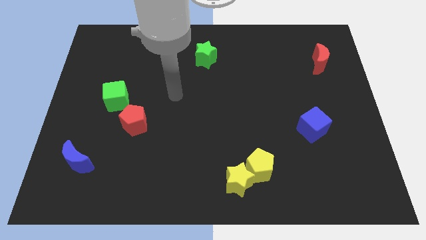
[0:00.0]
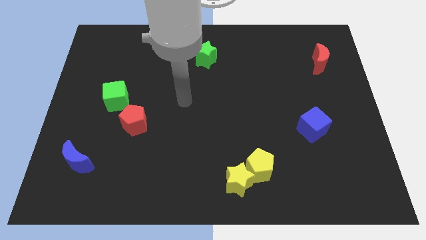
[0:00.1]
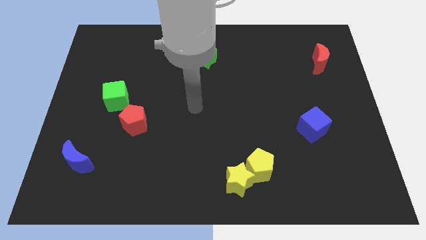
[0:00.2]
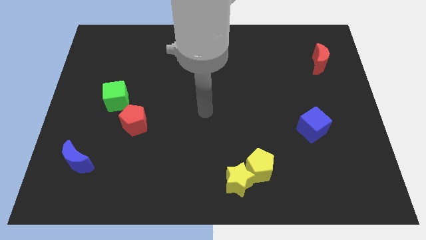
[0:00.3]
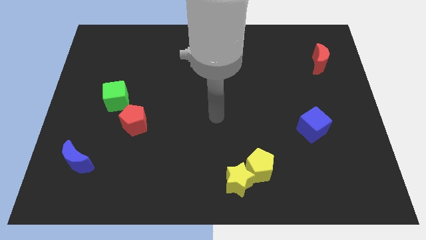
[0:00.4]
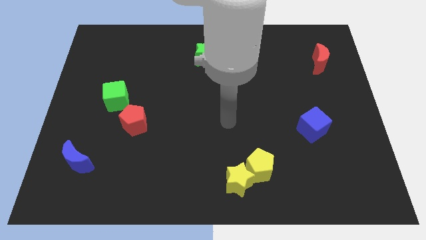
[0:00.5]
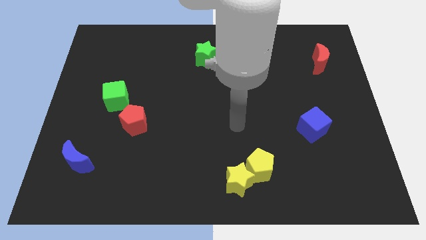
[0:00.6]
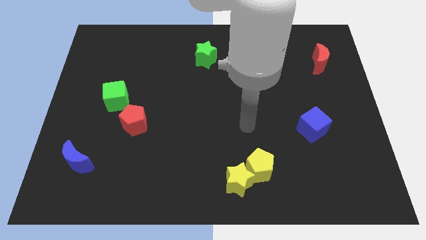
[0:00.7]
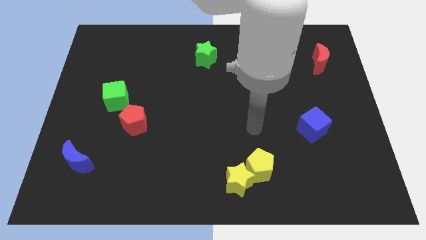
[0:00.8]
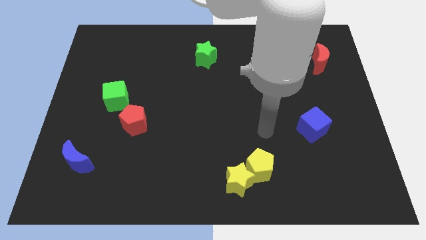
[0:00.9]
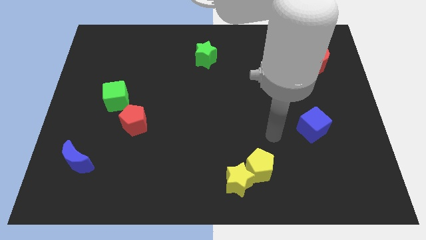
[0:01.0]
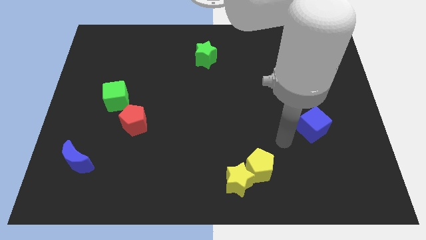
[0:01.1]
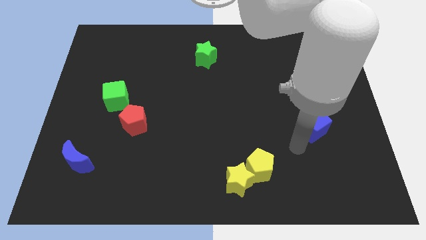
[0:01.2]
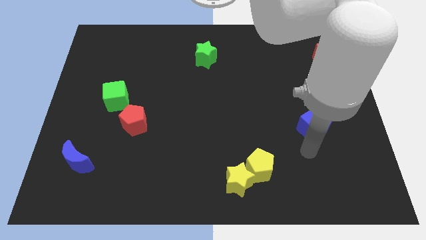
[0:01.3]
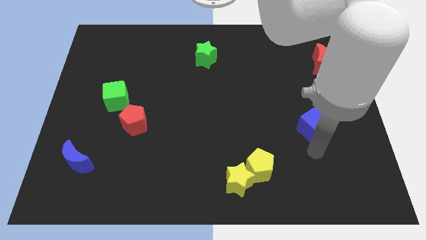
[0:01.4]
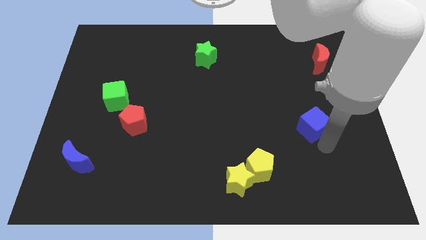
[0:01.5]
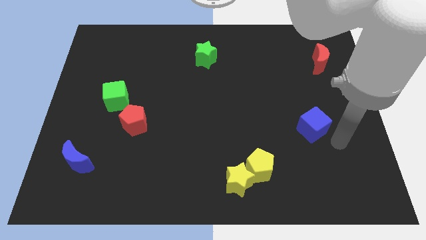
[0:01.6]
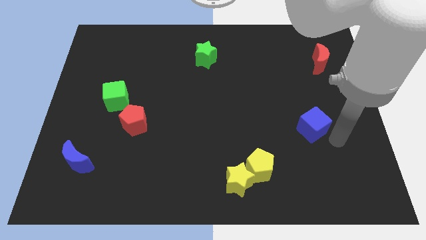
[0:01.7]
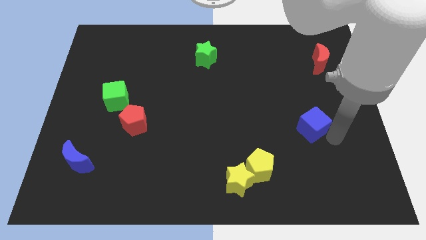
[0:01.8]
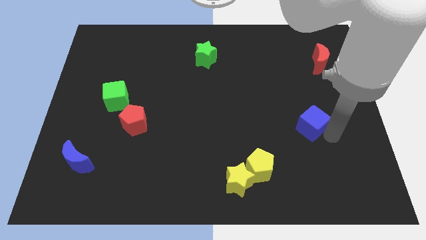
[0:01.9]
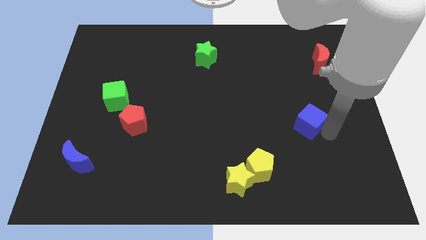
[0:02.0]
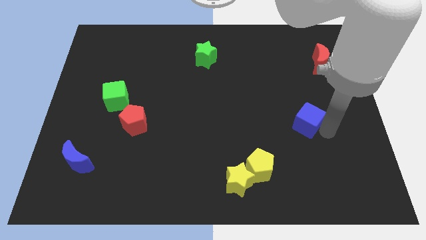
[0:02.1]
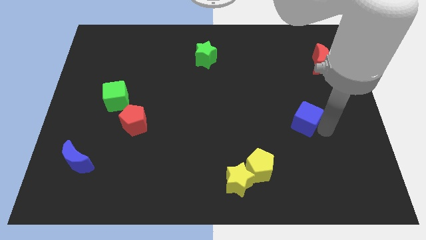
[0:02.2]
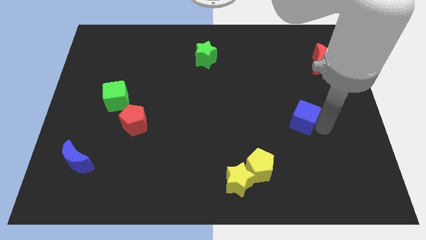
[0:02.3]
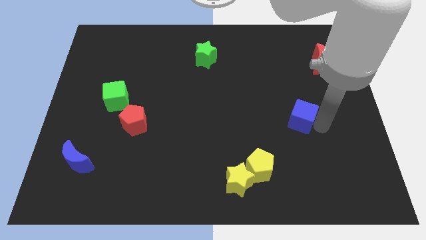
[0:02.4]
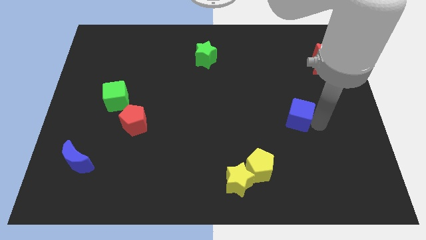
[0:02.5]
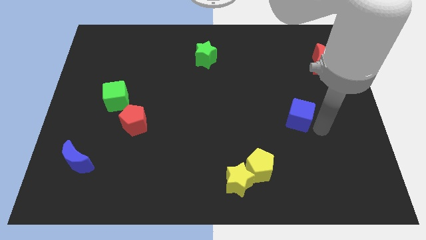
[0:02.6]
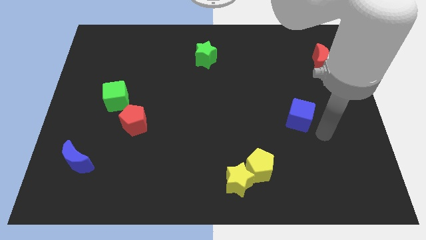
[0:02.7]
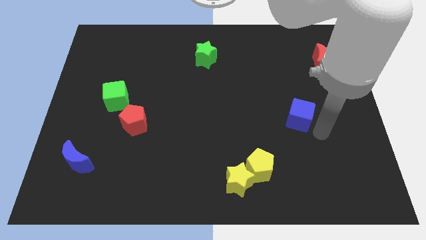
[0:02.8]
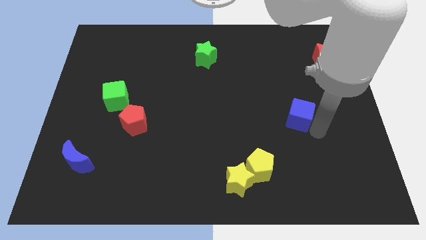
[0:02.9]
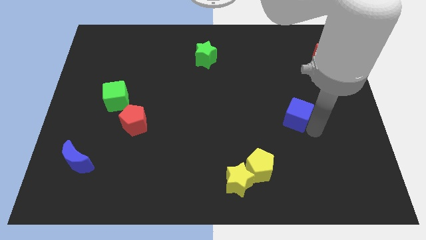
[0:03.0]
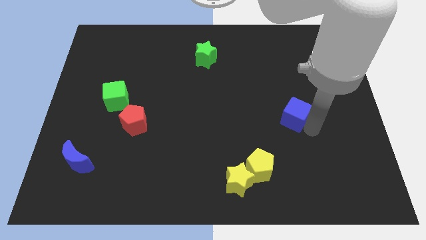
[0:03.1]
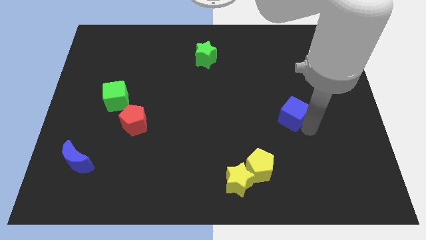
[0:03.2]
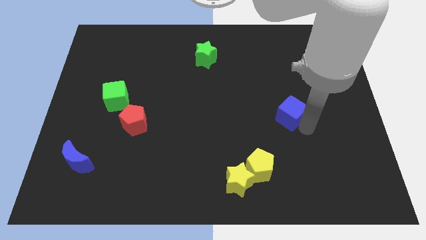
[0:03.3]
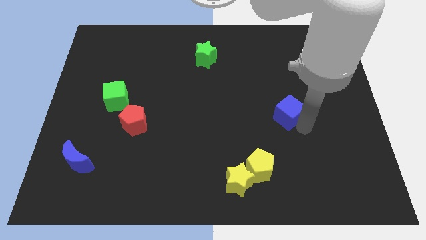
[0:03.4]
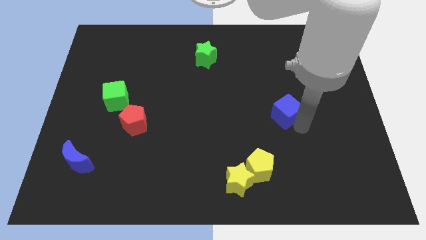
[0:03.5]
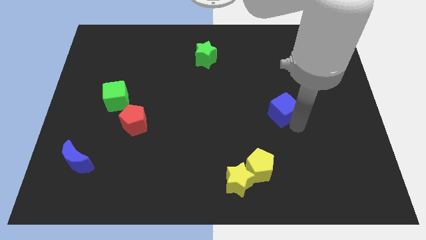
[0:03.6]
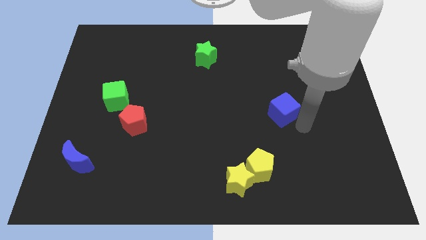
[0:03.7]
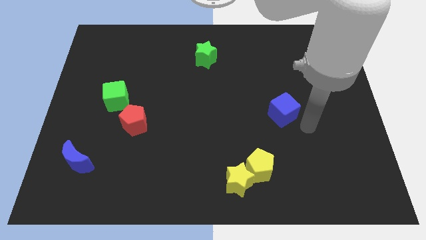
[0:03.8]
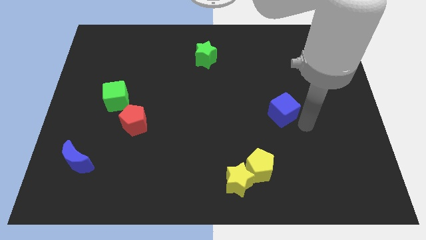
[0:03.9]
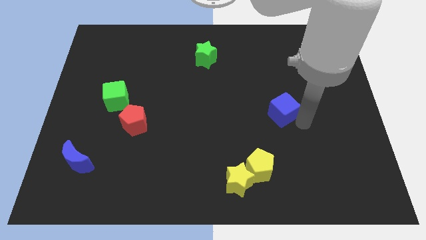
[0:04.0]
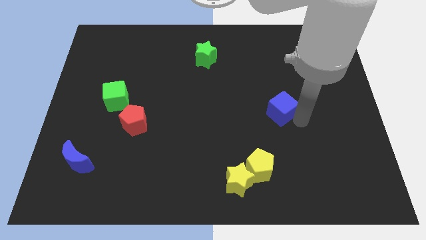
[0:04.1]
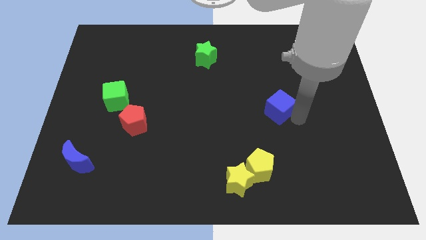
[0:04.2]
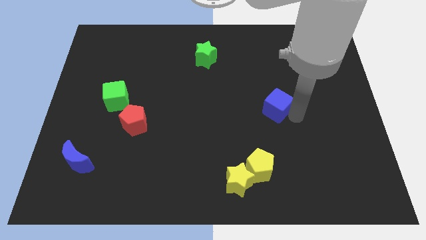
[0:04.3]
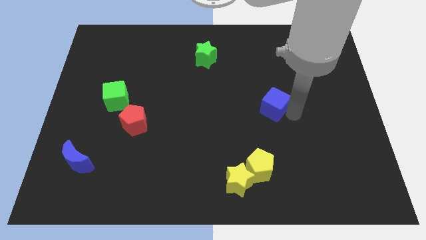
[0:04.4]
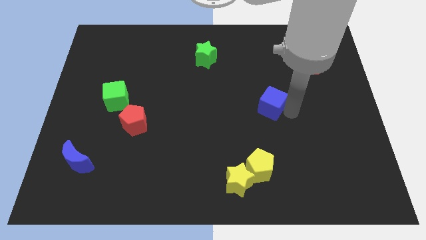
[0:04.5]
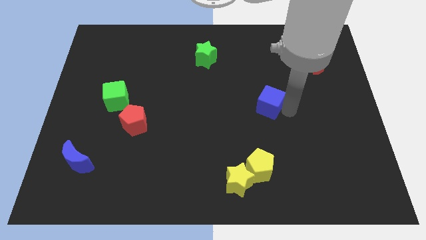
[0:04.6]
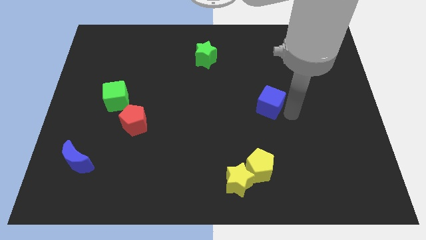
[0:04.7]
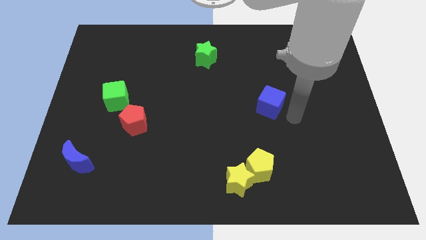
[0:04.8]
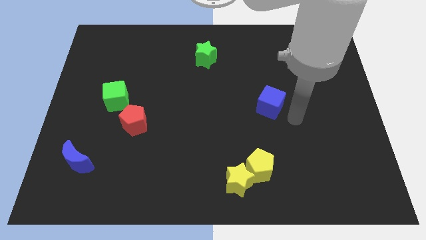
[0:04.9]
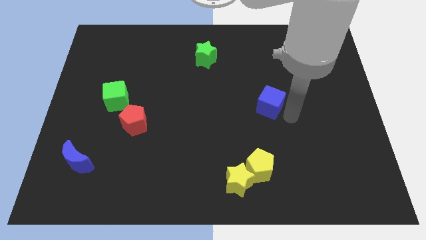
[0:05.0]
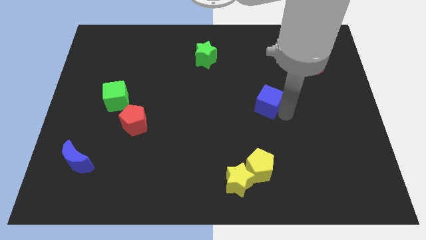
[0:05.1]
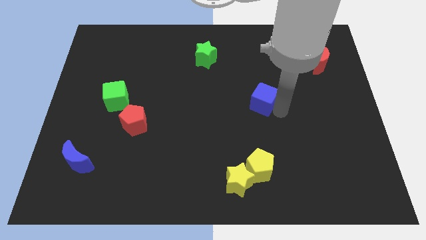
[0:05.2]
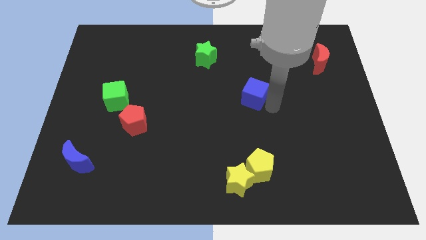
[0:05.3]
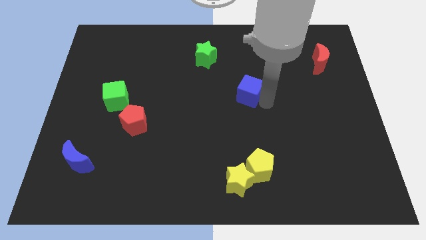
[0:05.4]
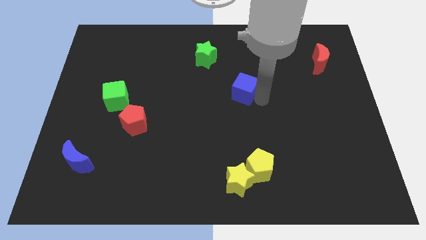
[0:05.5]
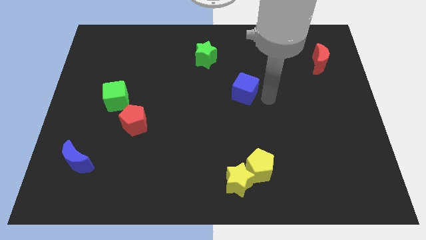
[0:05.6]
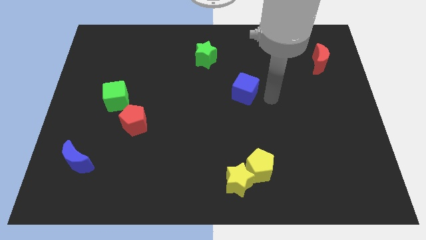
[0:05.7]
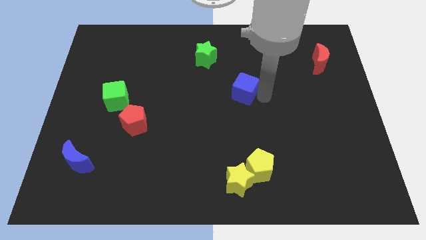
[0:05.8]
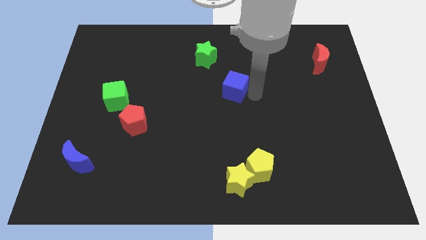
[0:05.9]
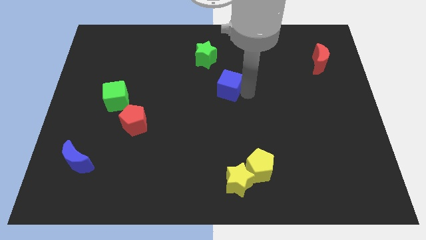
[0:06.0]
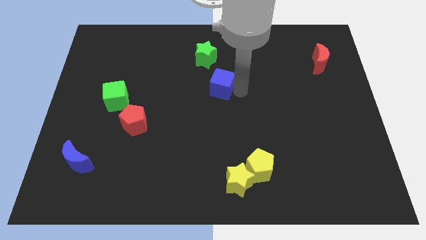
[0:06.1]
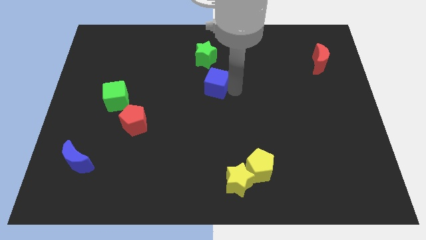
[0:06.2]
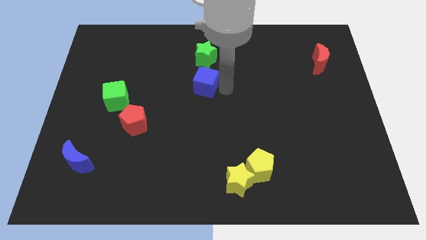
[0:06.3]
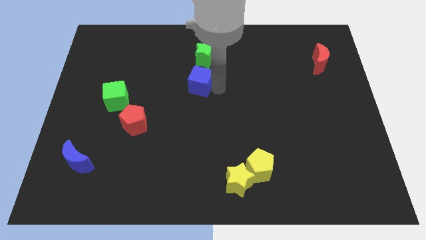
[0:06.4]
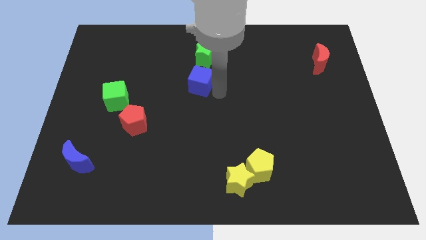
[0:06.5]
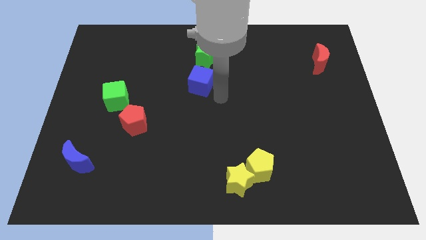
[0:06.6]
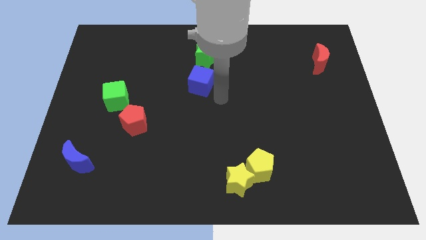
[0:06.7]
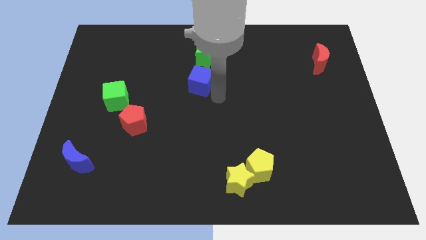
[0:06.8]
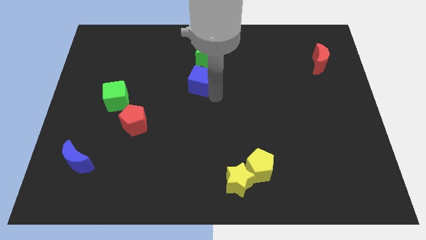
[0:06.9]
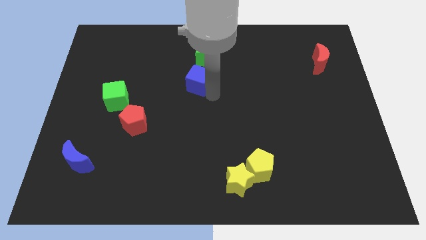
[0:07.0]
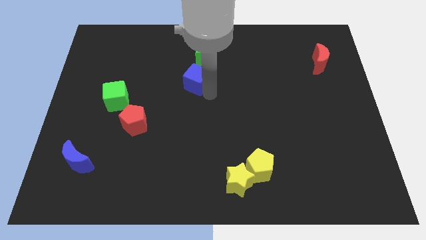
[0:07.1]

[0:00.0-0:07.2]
slide the blue cube to the bottom left side of the green star

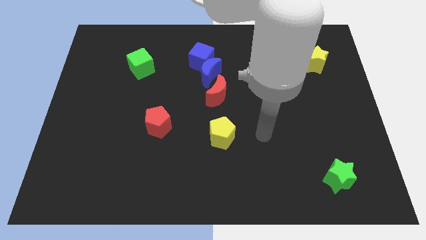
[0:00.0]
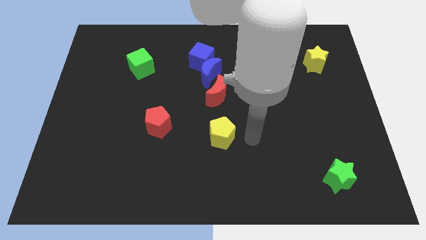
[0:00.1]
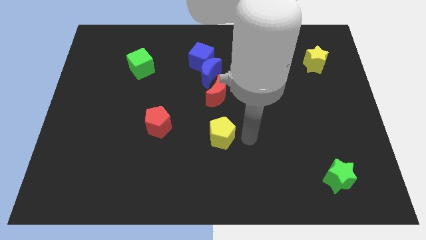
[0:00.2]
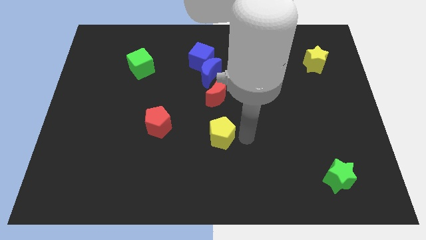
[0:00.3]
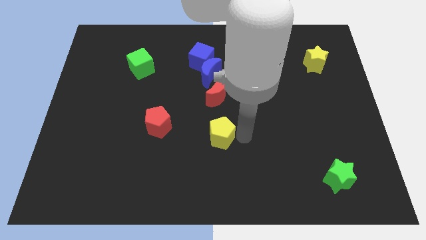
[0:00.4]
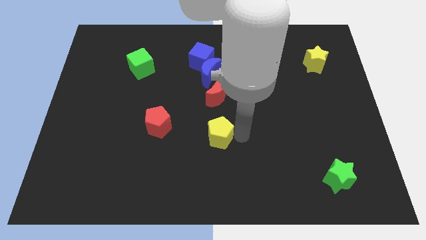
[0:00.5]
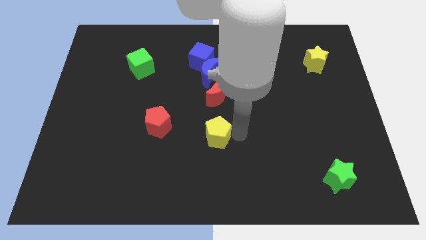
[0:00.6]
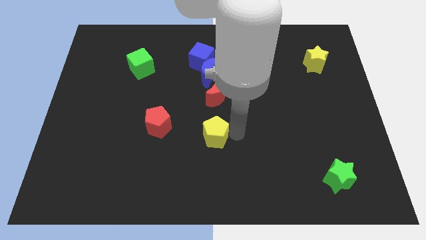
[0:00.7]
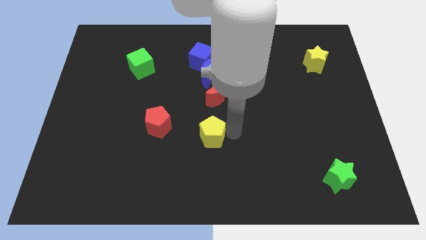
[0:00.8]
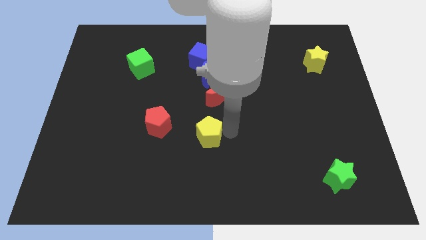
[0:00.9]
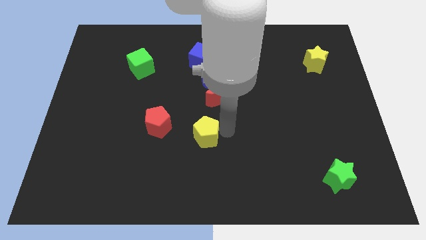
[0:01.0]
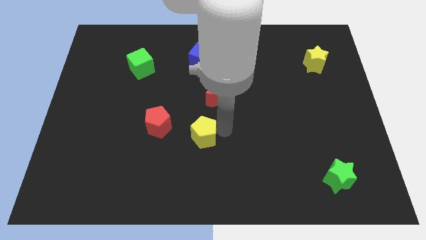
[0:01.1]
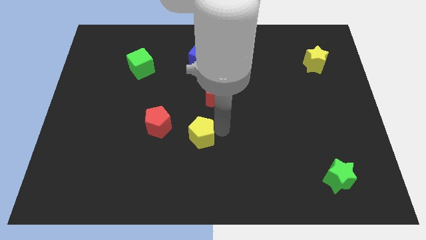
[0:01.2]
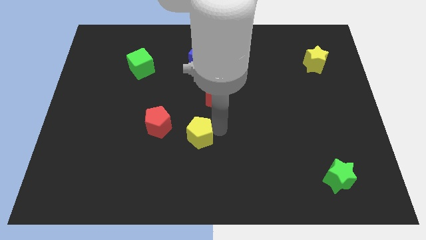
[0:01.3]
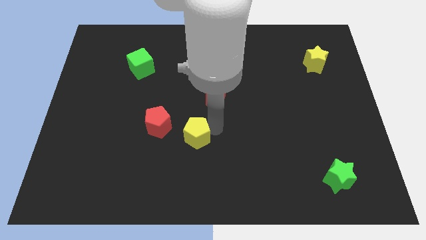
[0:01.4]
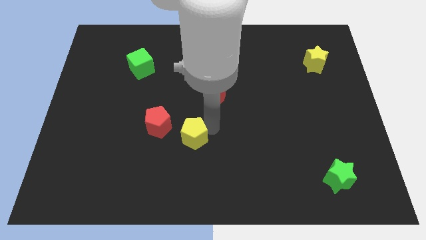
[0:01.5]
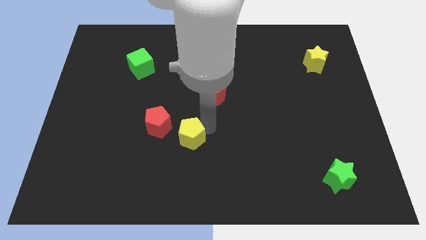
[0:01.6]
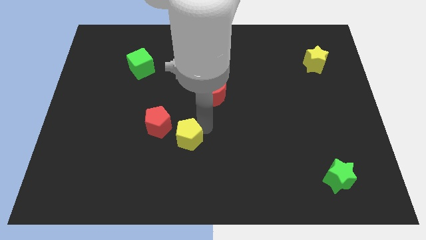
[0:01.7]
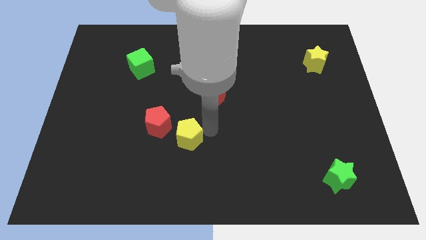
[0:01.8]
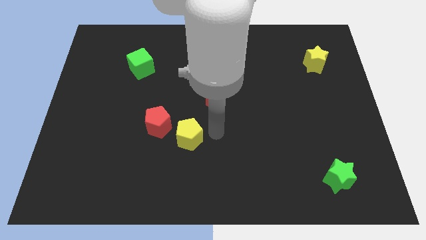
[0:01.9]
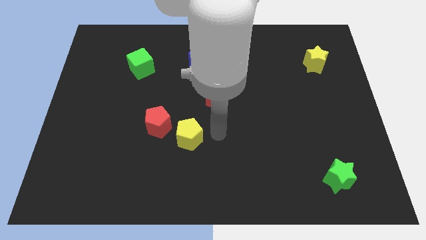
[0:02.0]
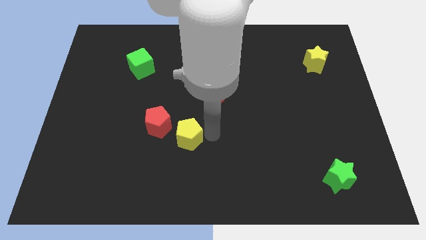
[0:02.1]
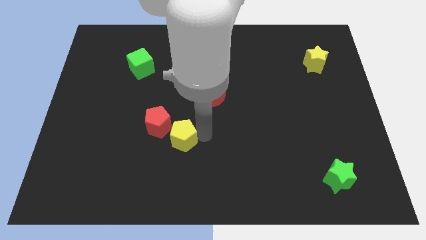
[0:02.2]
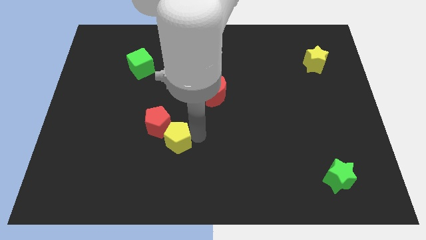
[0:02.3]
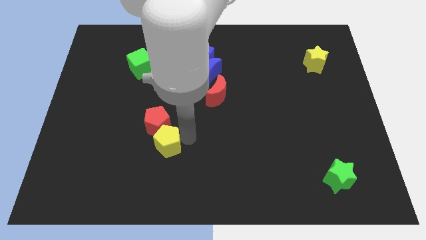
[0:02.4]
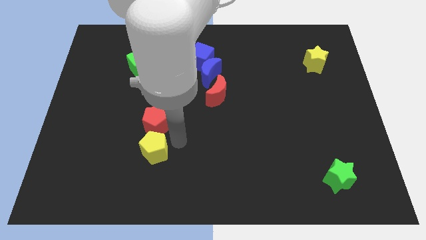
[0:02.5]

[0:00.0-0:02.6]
slide the yellow pentagon to the bottom left side of the red pentagon
